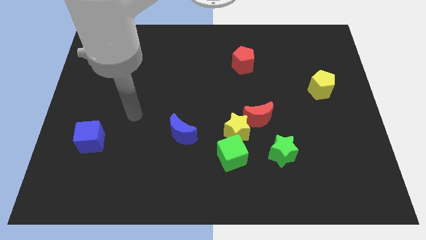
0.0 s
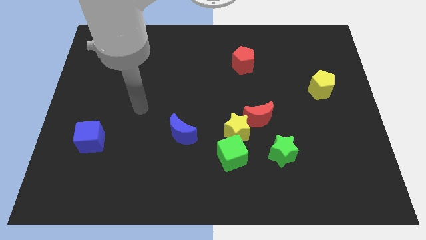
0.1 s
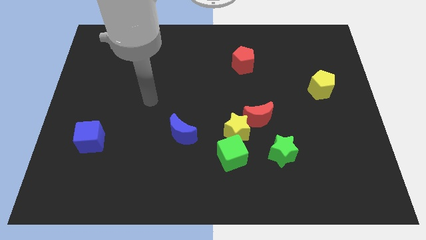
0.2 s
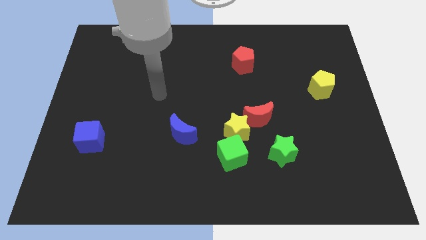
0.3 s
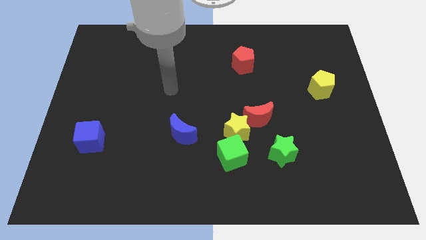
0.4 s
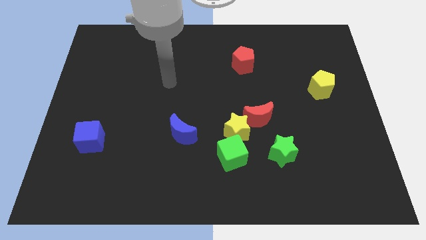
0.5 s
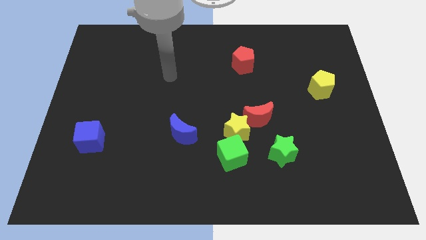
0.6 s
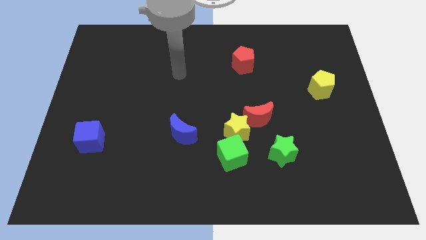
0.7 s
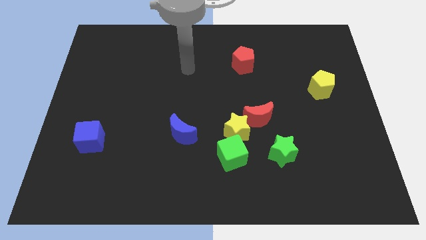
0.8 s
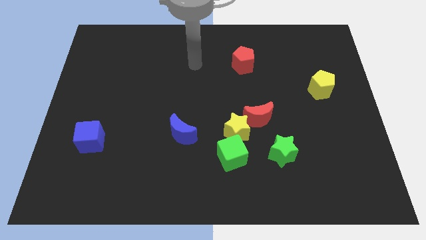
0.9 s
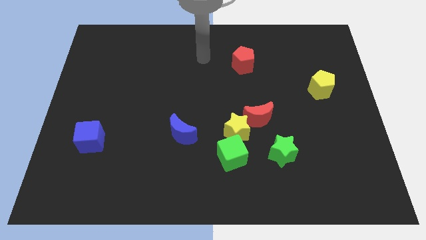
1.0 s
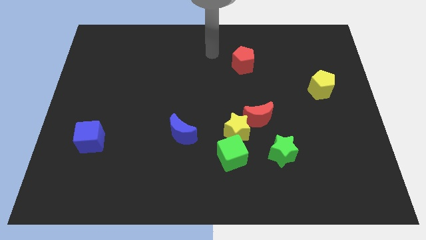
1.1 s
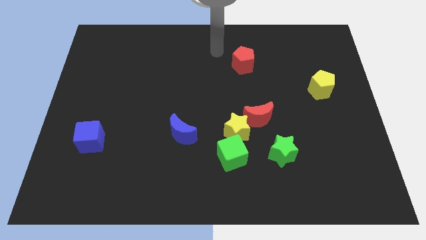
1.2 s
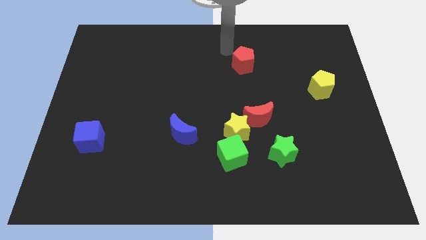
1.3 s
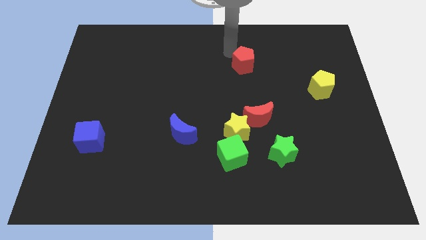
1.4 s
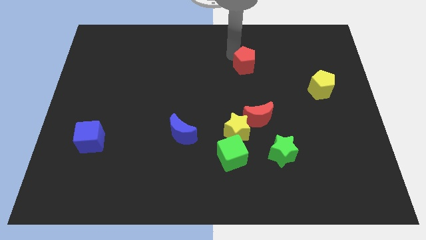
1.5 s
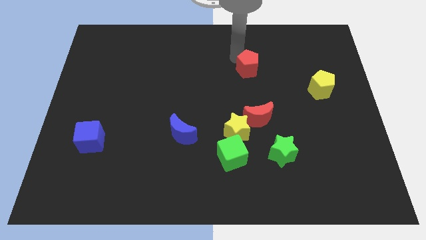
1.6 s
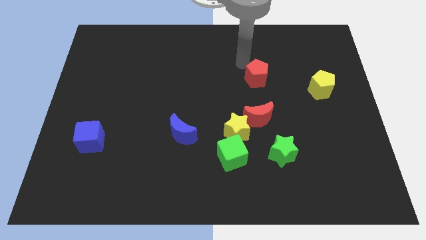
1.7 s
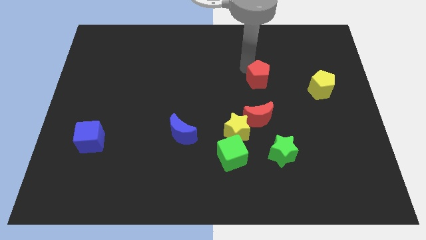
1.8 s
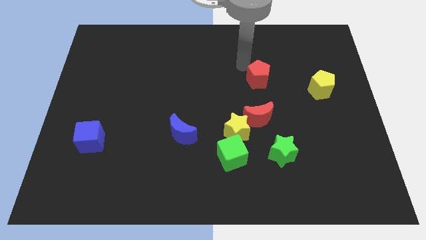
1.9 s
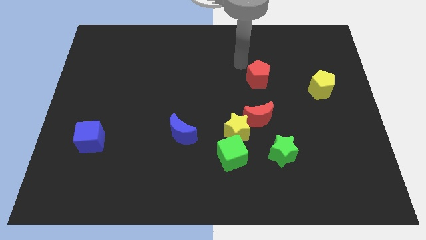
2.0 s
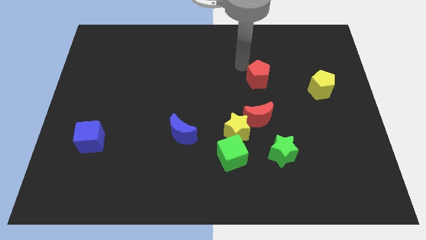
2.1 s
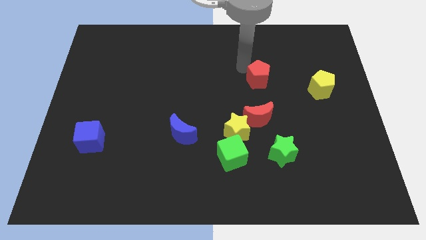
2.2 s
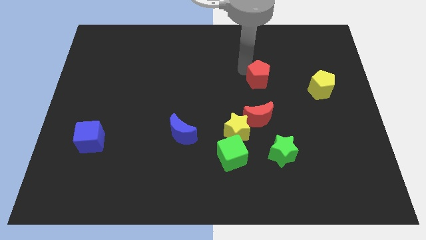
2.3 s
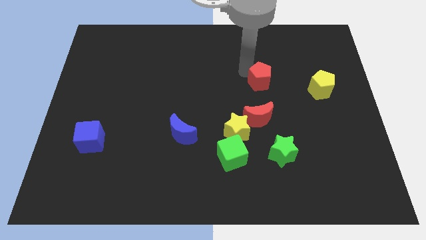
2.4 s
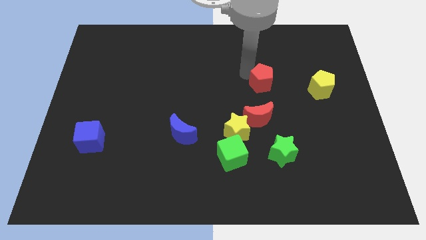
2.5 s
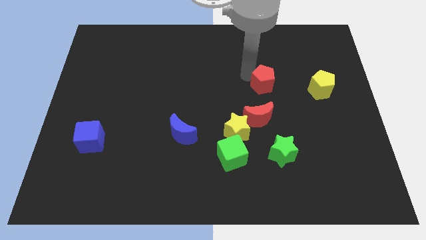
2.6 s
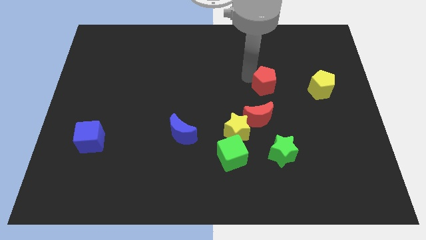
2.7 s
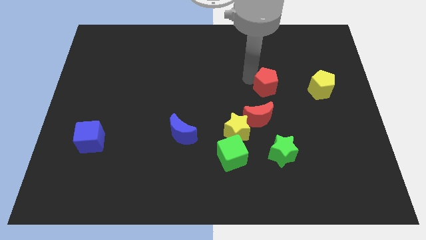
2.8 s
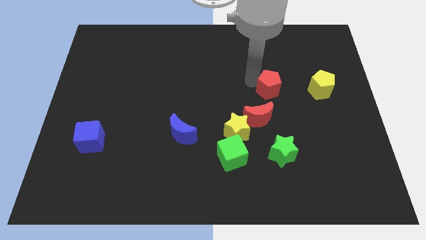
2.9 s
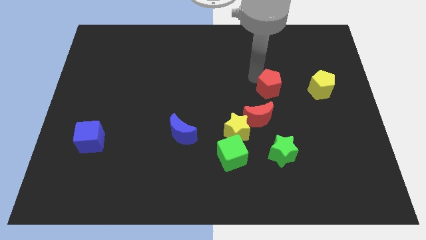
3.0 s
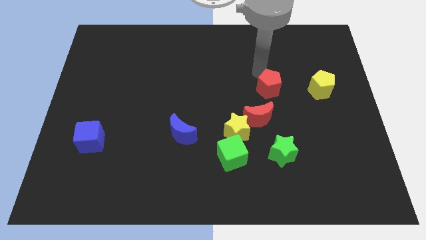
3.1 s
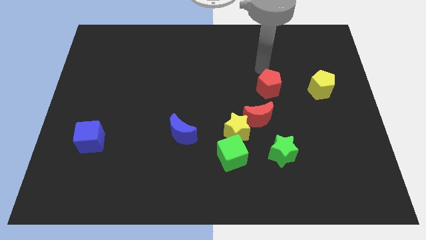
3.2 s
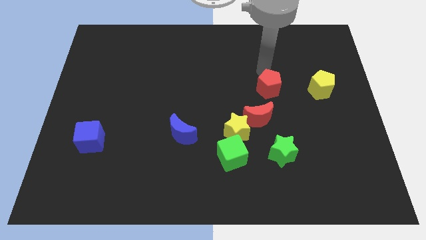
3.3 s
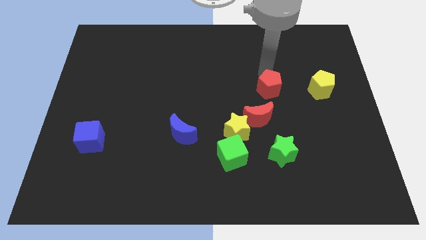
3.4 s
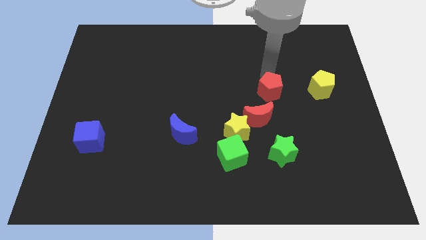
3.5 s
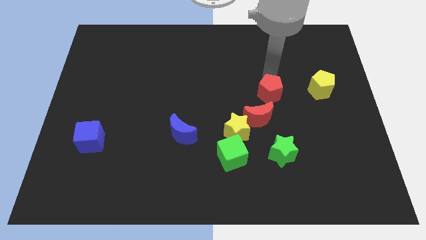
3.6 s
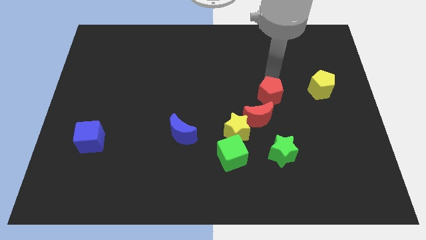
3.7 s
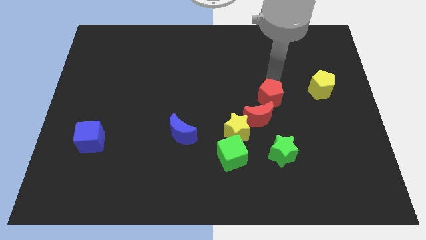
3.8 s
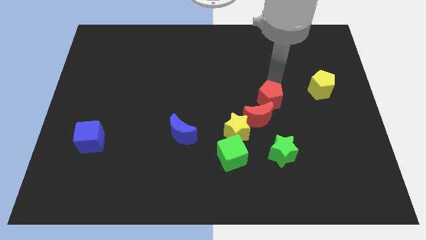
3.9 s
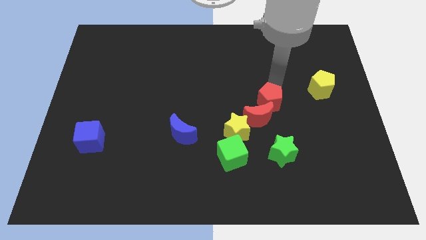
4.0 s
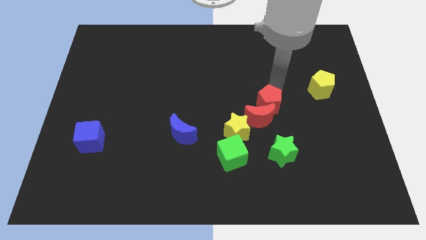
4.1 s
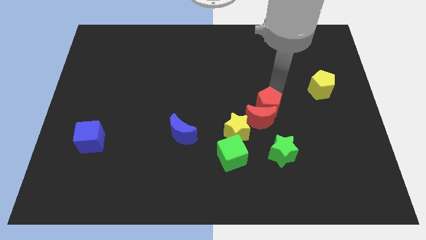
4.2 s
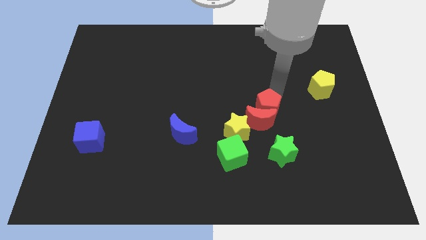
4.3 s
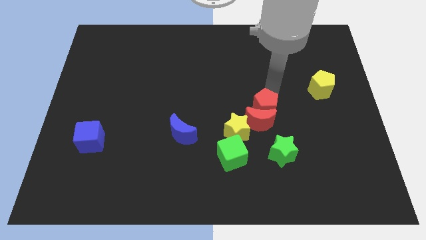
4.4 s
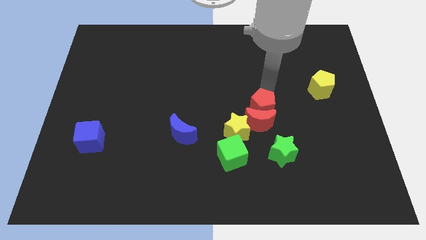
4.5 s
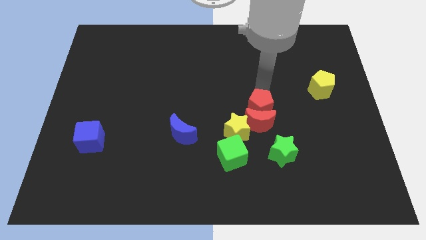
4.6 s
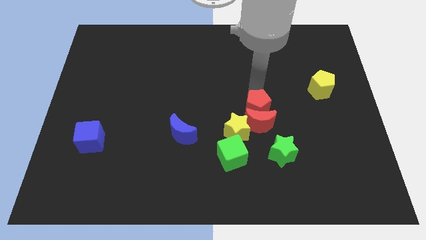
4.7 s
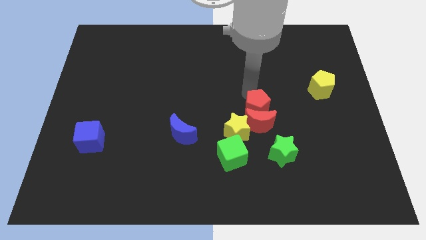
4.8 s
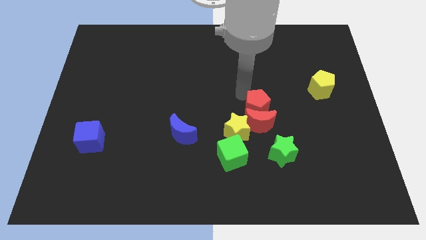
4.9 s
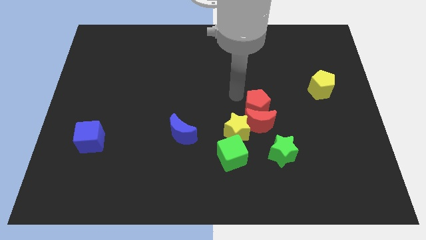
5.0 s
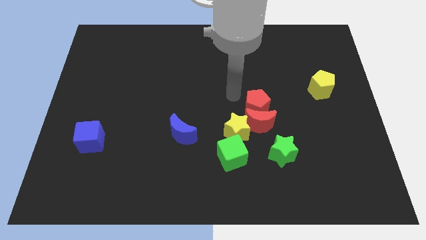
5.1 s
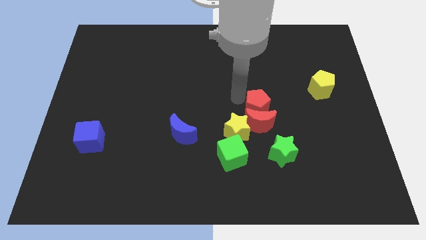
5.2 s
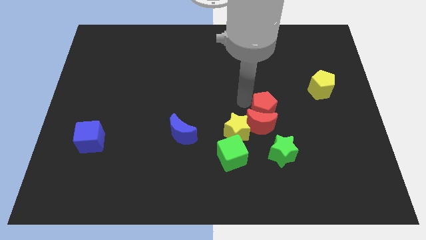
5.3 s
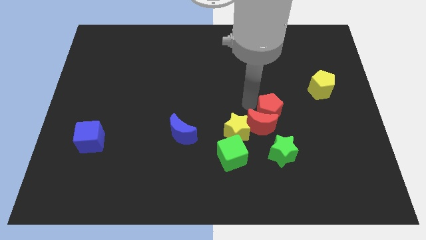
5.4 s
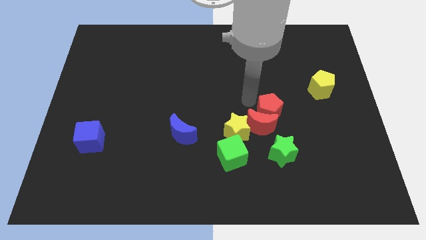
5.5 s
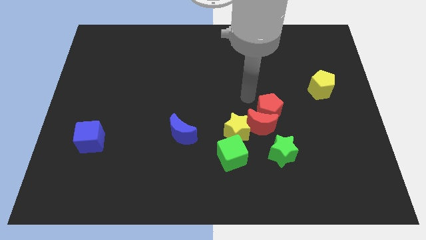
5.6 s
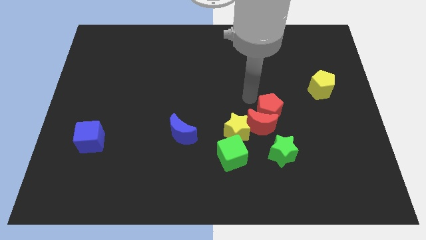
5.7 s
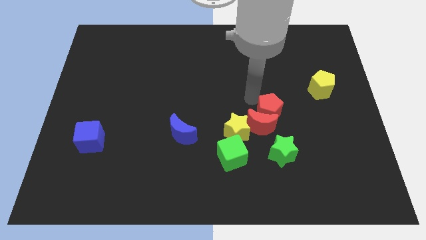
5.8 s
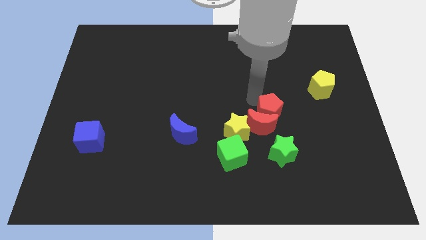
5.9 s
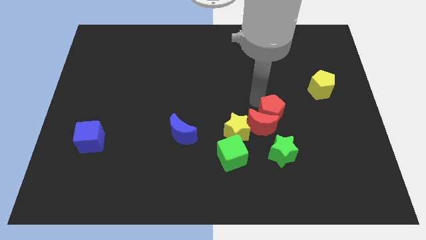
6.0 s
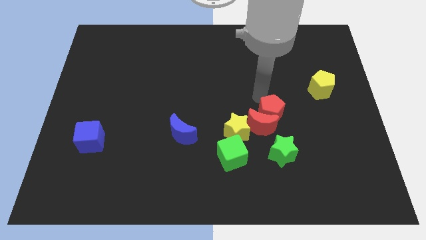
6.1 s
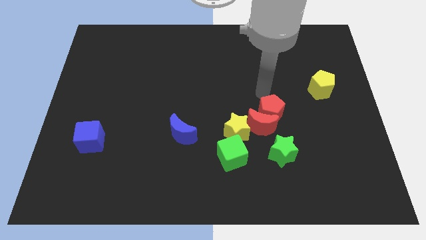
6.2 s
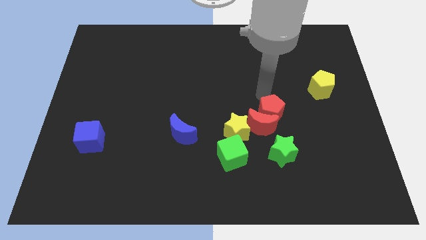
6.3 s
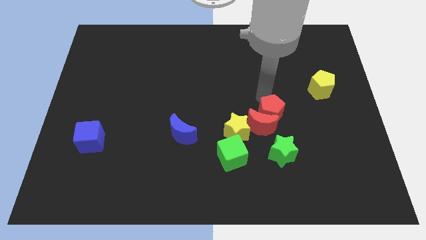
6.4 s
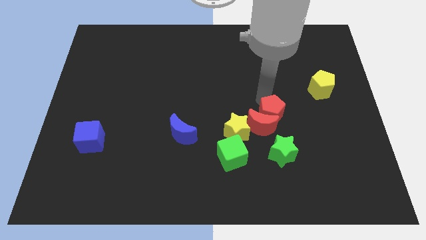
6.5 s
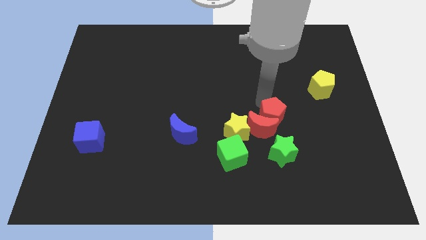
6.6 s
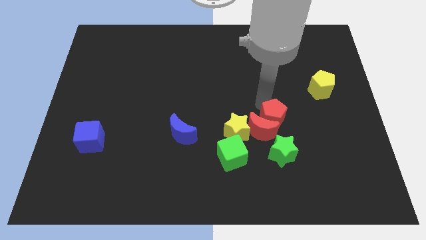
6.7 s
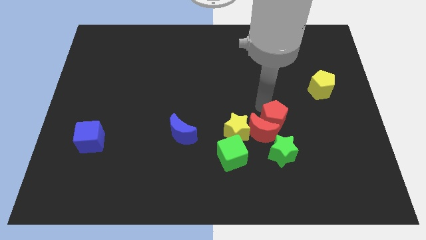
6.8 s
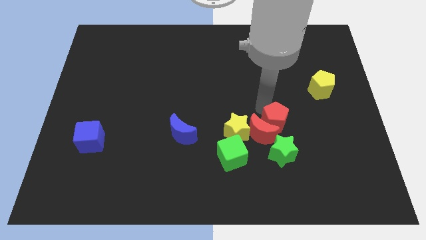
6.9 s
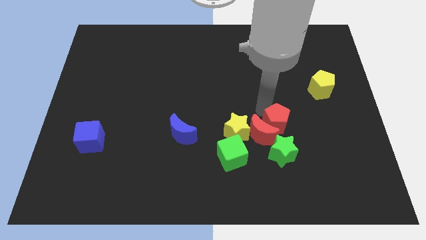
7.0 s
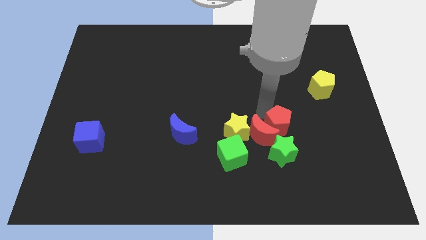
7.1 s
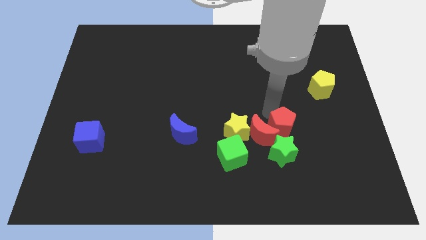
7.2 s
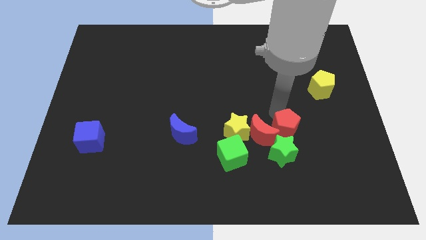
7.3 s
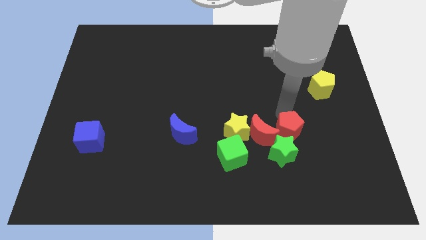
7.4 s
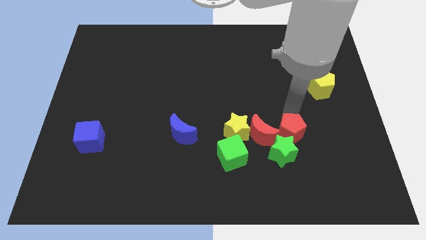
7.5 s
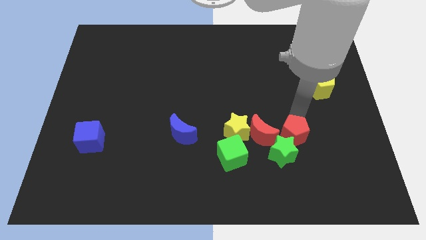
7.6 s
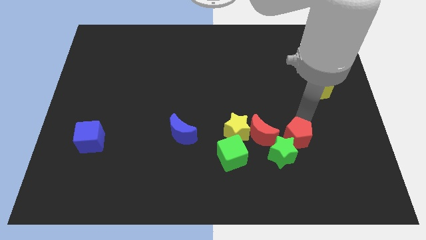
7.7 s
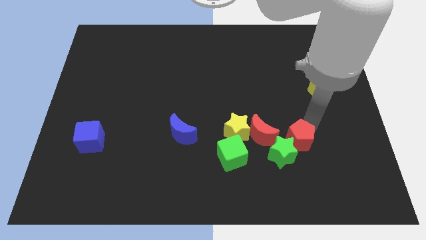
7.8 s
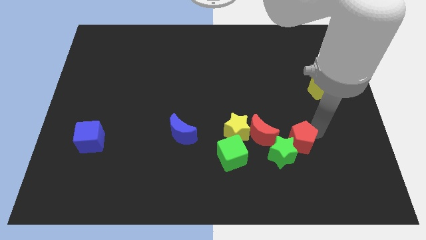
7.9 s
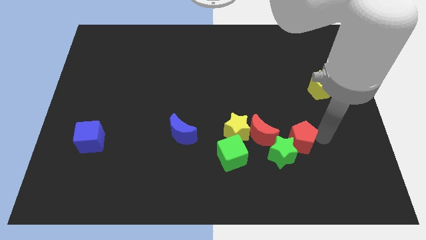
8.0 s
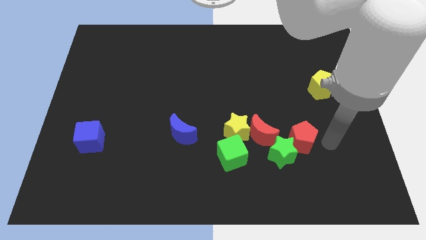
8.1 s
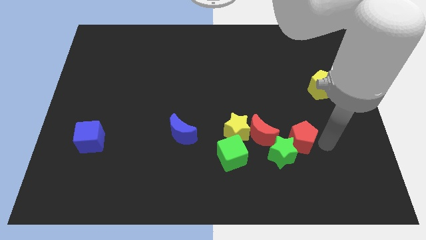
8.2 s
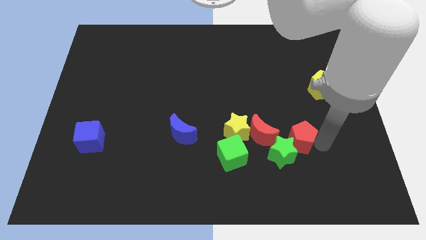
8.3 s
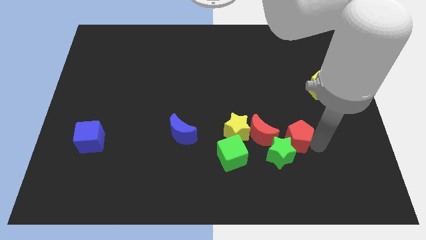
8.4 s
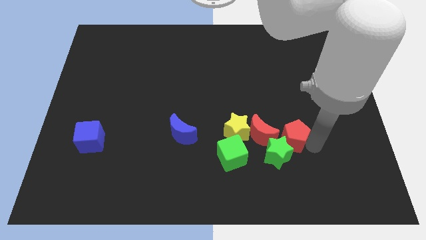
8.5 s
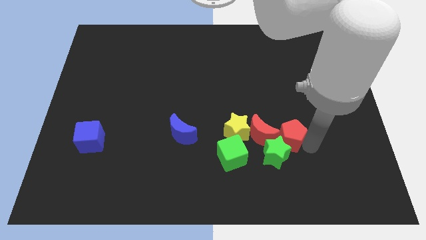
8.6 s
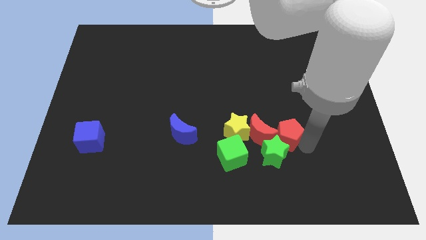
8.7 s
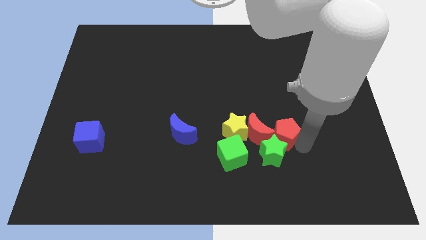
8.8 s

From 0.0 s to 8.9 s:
slide the red pentagon downwards
